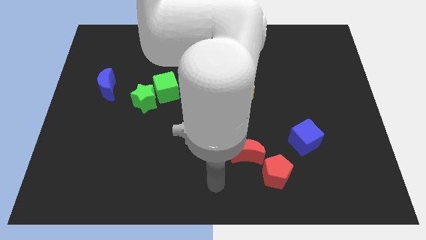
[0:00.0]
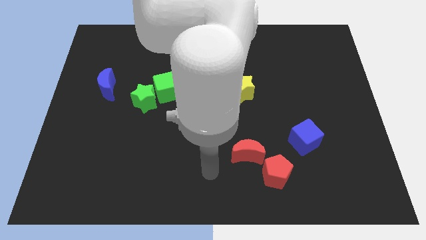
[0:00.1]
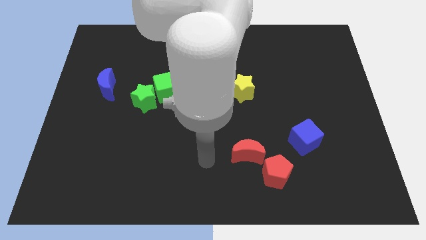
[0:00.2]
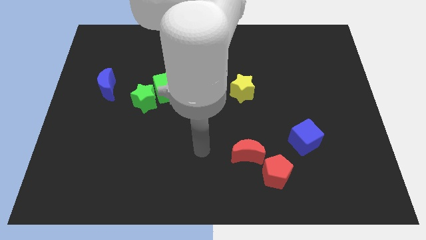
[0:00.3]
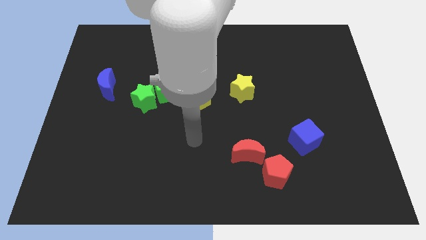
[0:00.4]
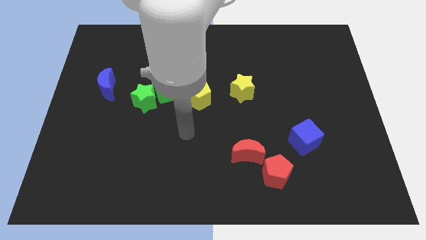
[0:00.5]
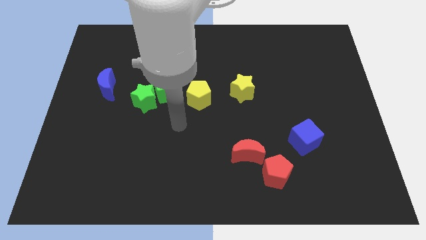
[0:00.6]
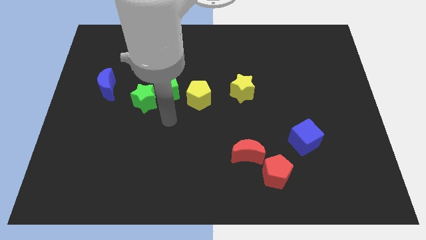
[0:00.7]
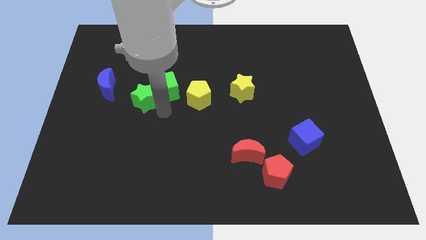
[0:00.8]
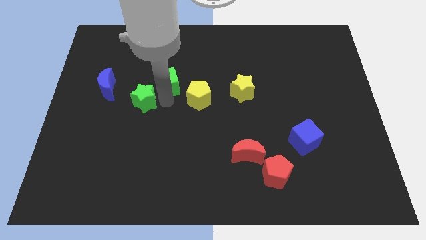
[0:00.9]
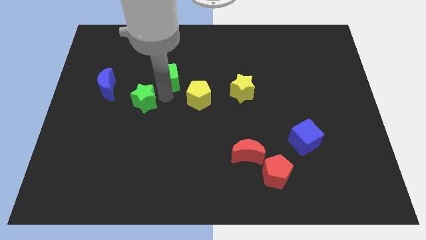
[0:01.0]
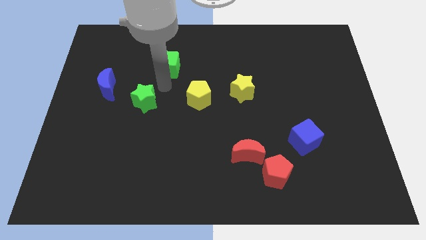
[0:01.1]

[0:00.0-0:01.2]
move the green star away from the green cube

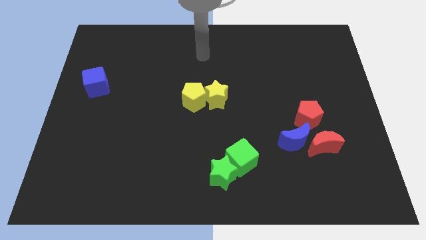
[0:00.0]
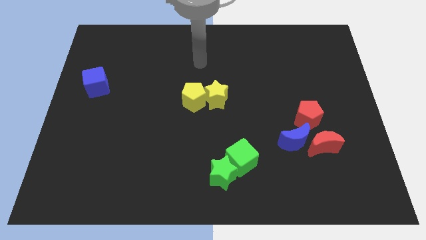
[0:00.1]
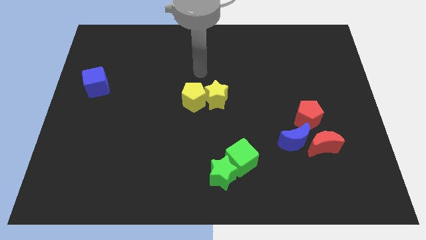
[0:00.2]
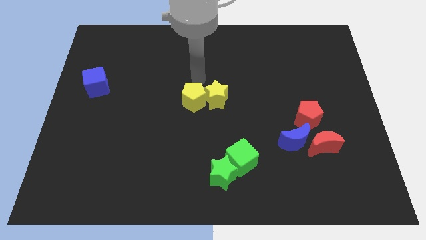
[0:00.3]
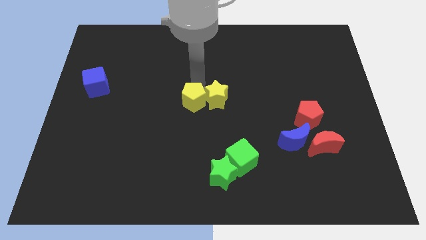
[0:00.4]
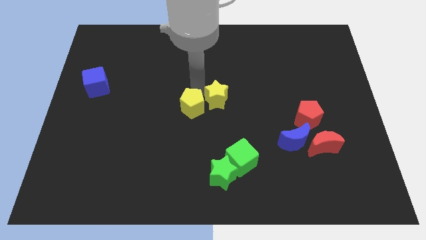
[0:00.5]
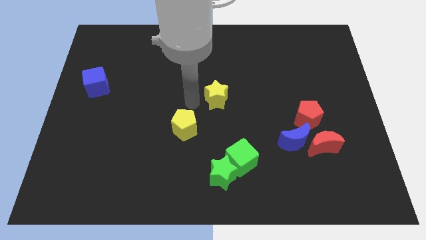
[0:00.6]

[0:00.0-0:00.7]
move the yellow star away from the yellow pentagon

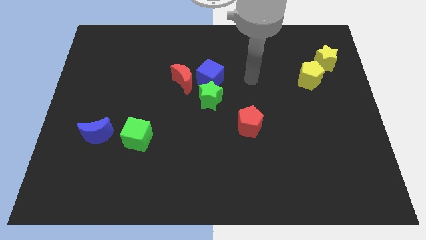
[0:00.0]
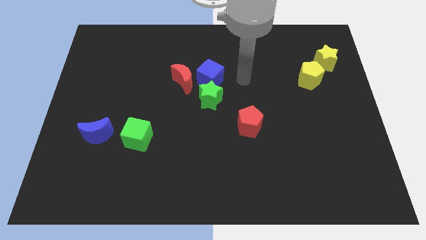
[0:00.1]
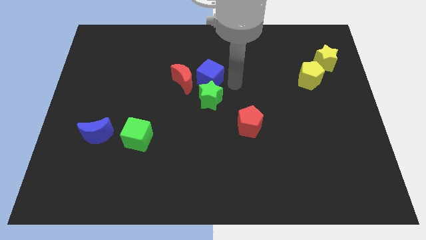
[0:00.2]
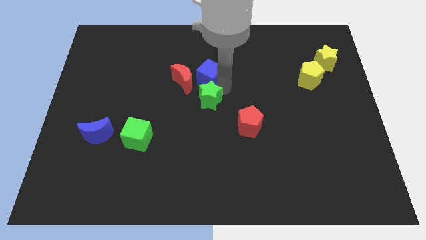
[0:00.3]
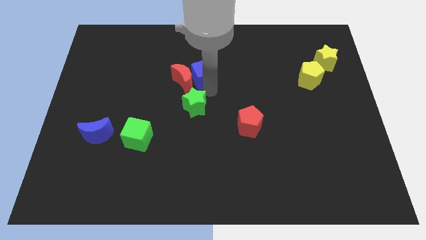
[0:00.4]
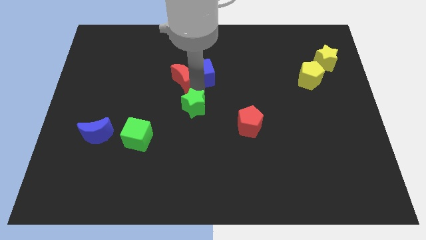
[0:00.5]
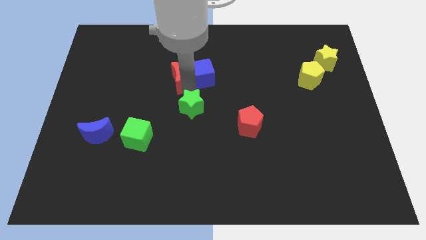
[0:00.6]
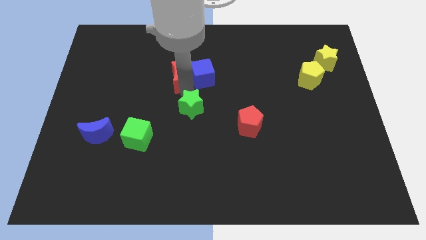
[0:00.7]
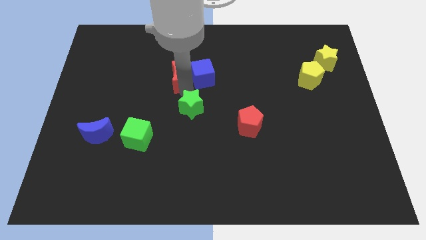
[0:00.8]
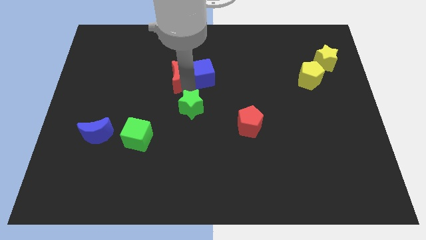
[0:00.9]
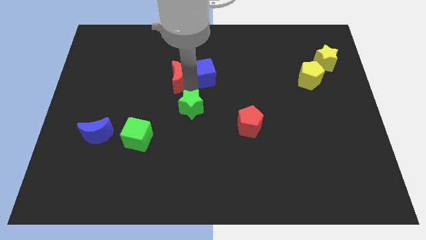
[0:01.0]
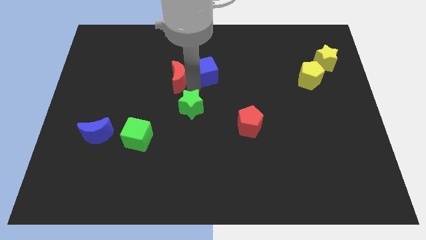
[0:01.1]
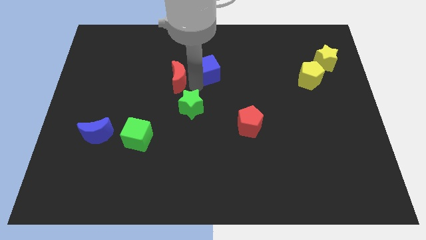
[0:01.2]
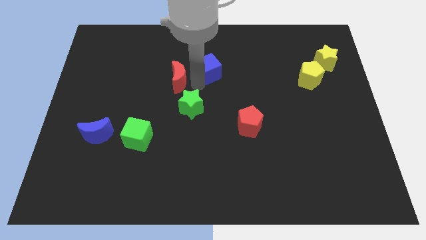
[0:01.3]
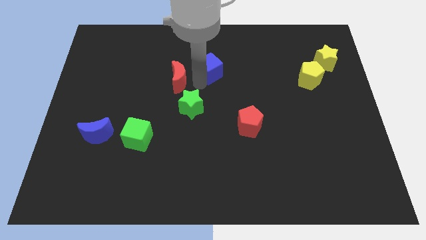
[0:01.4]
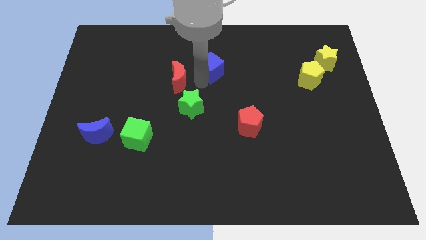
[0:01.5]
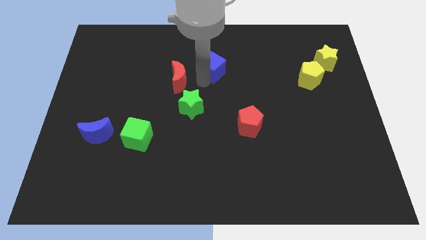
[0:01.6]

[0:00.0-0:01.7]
pull the blue cube apart from the green star and red moon

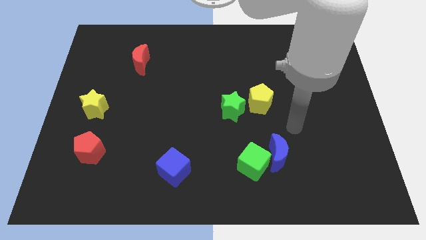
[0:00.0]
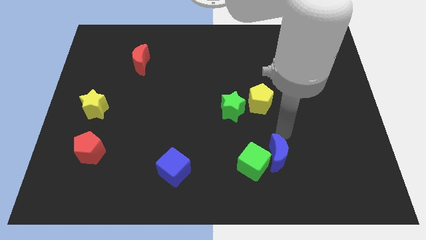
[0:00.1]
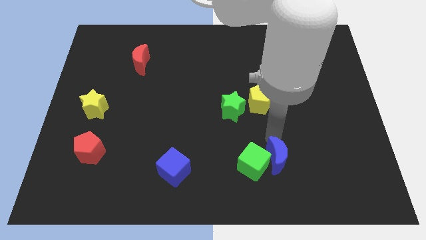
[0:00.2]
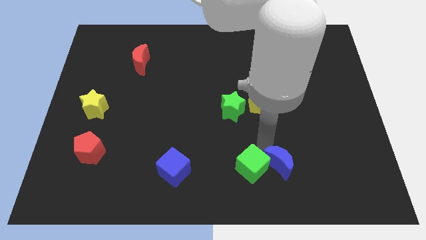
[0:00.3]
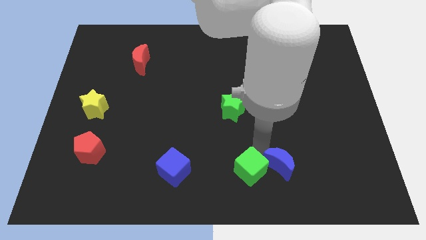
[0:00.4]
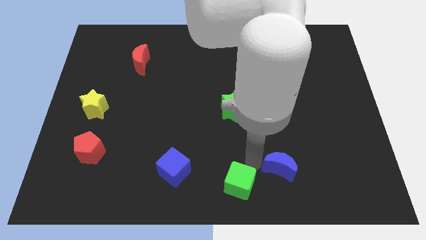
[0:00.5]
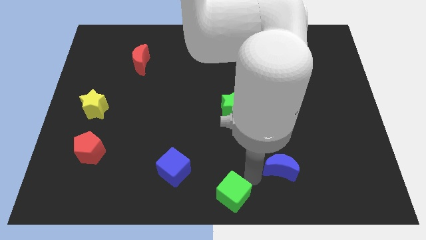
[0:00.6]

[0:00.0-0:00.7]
separate the blue moon from the green cube

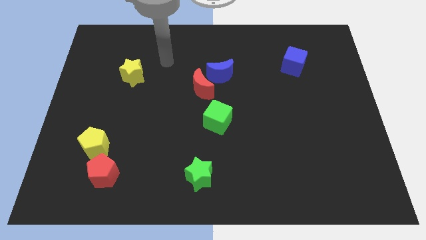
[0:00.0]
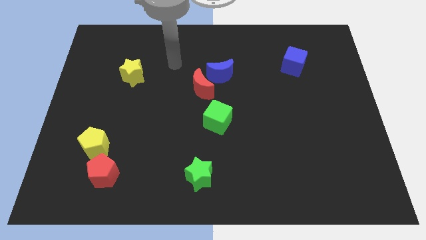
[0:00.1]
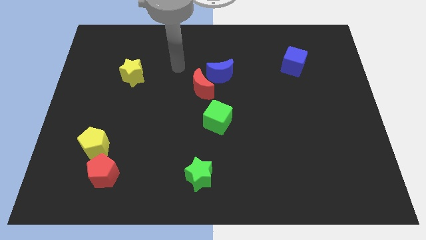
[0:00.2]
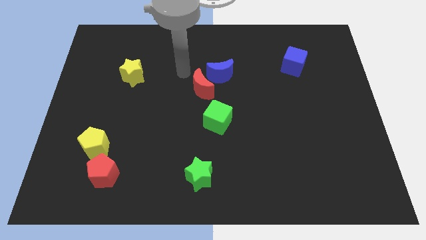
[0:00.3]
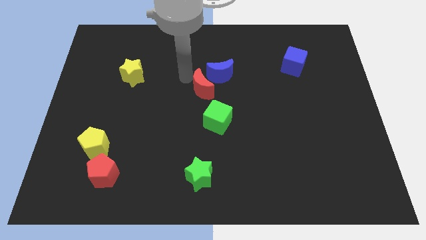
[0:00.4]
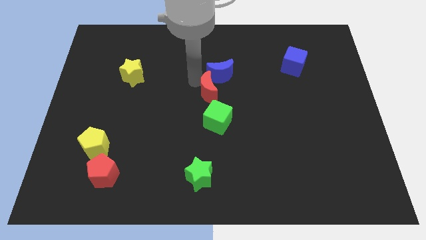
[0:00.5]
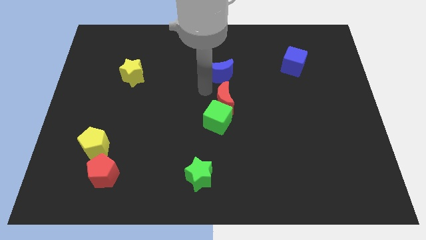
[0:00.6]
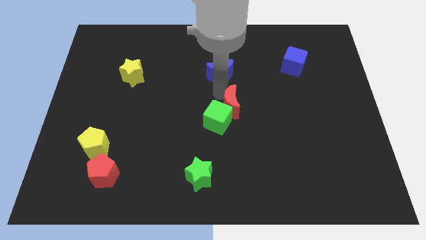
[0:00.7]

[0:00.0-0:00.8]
move the blue moon away from the red moon

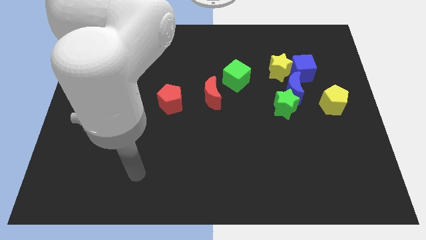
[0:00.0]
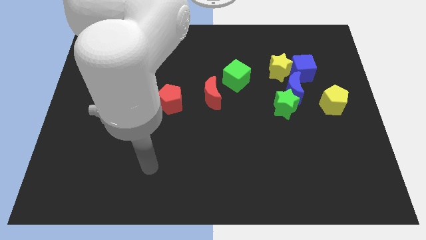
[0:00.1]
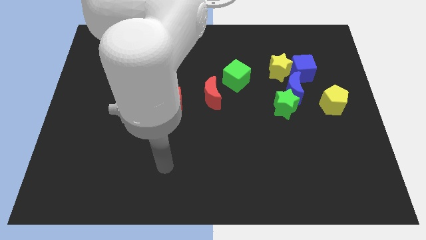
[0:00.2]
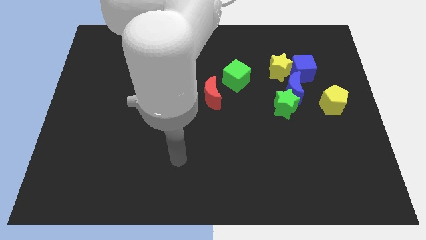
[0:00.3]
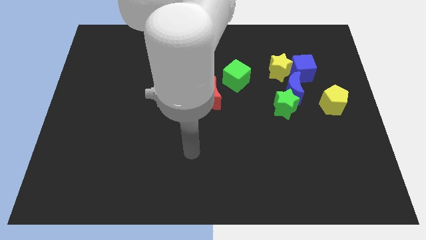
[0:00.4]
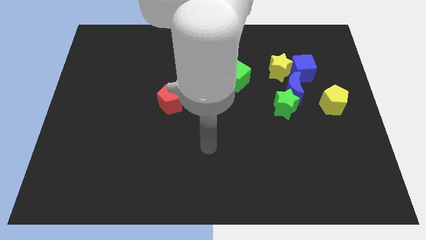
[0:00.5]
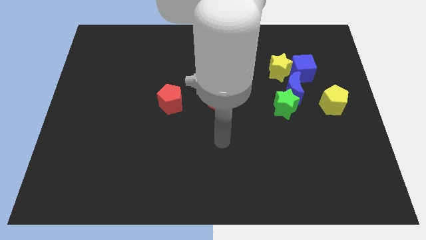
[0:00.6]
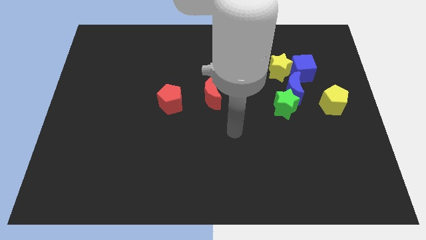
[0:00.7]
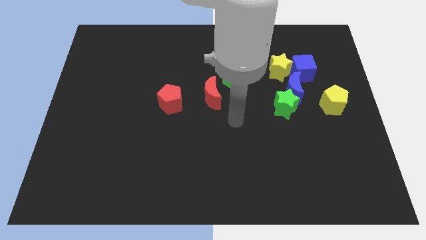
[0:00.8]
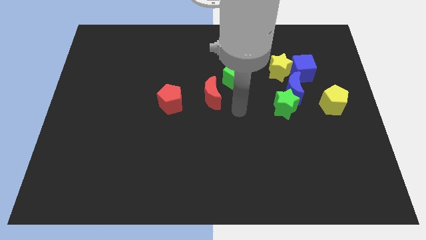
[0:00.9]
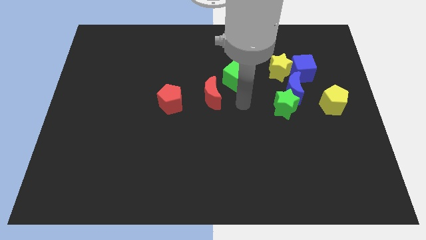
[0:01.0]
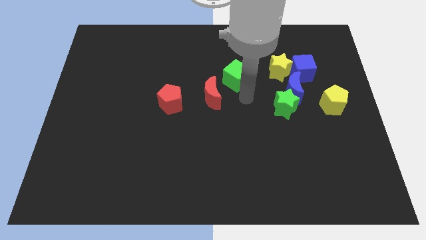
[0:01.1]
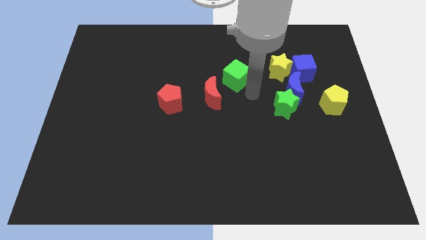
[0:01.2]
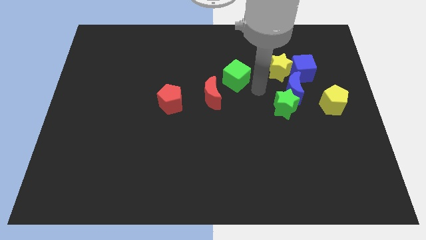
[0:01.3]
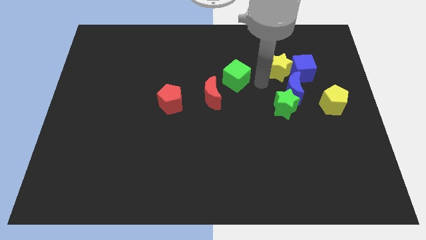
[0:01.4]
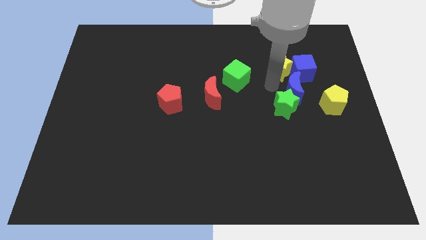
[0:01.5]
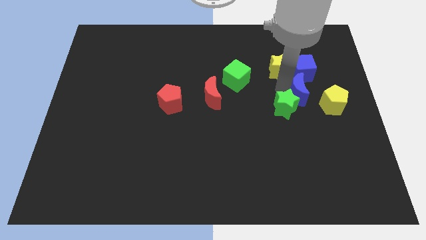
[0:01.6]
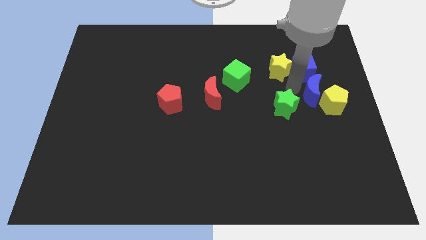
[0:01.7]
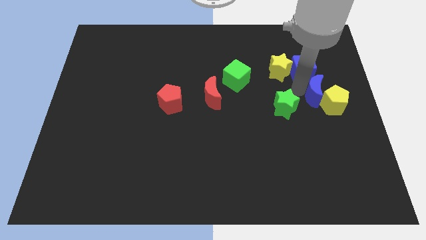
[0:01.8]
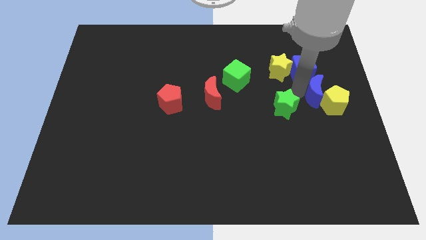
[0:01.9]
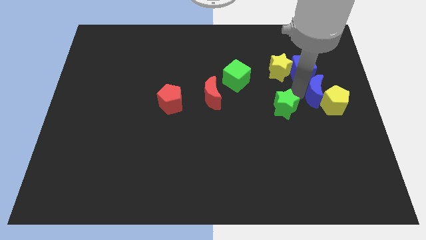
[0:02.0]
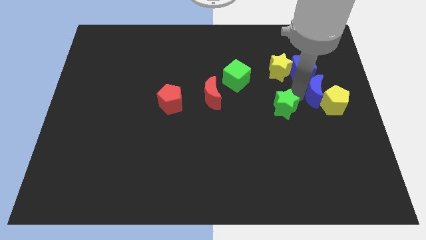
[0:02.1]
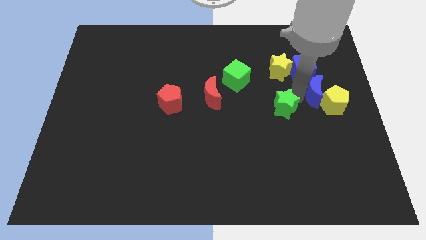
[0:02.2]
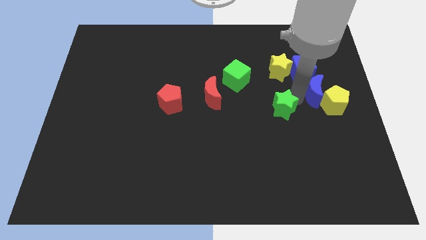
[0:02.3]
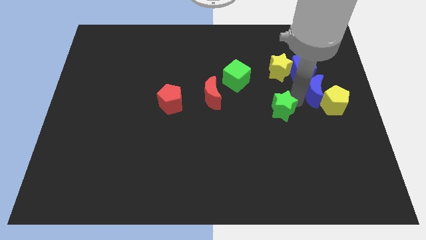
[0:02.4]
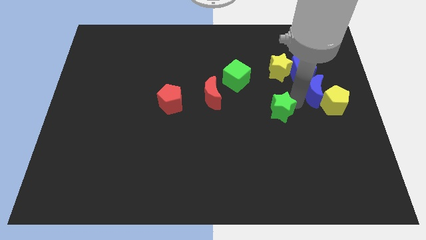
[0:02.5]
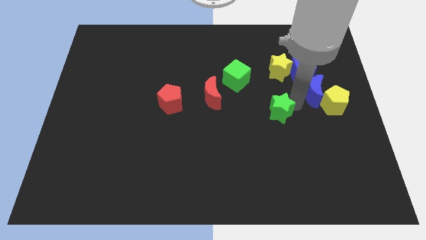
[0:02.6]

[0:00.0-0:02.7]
pull the green star apart from the blue moon

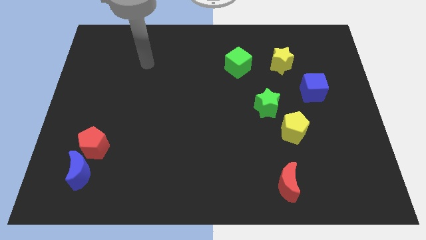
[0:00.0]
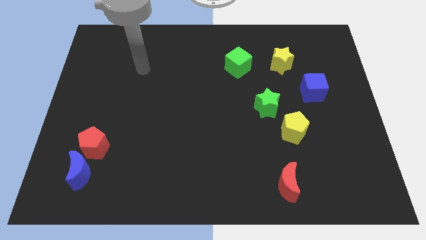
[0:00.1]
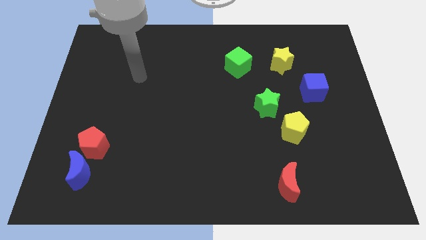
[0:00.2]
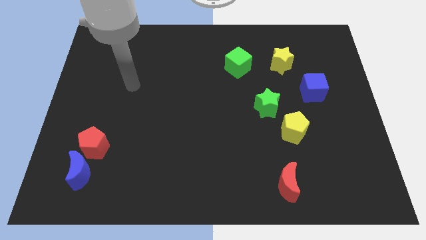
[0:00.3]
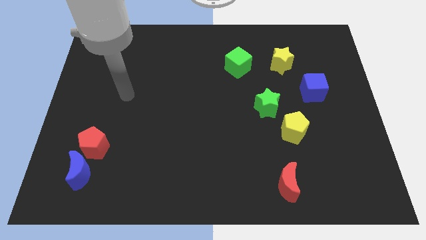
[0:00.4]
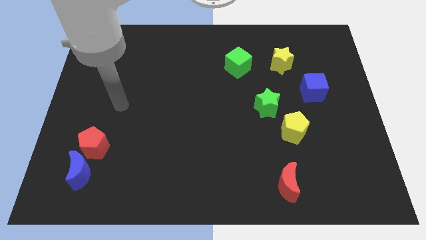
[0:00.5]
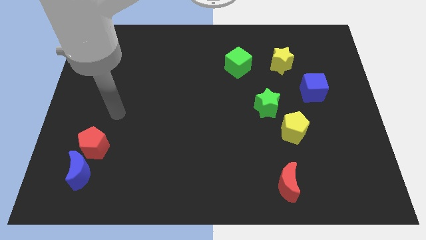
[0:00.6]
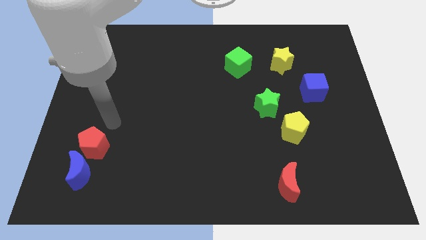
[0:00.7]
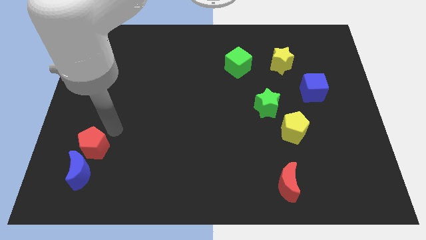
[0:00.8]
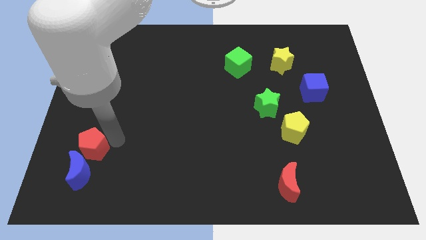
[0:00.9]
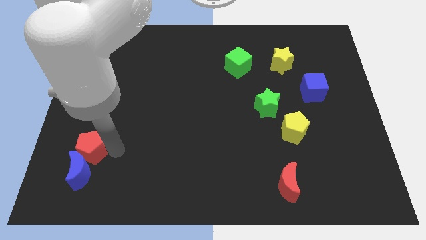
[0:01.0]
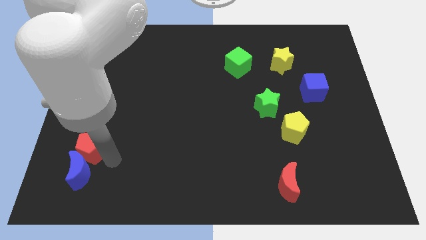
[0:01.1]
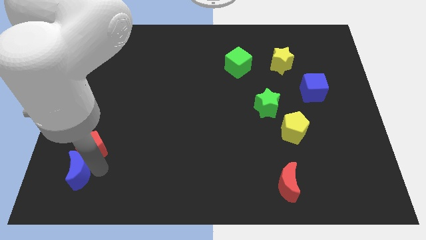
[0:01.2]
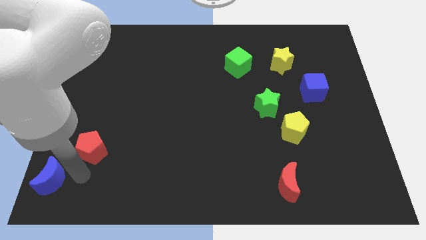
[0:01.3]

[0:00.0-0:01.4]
move the red pentagon away from the blue moon
